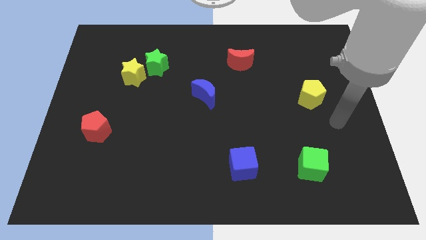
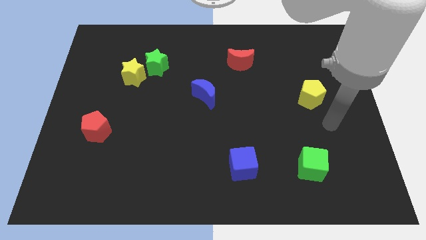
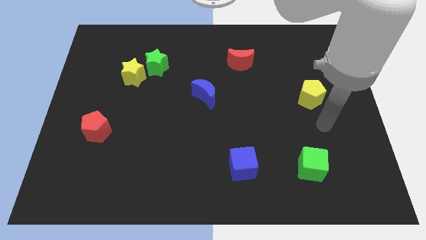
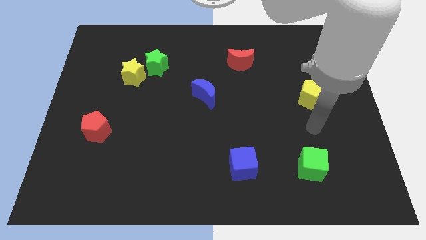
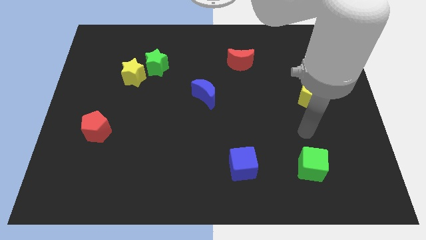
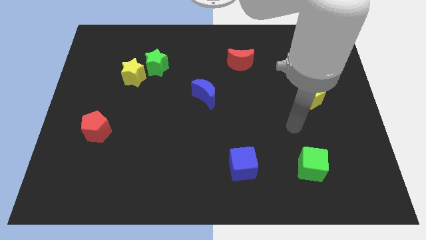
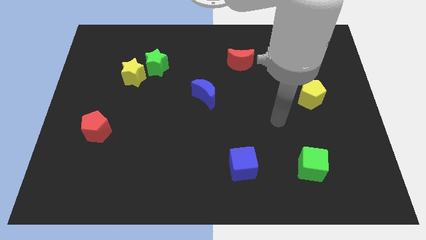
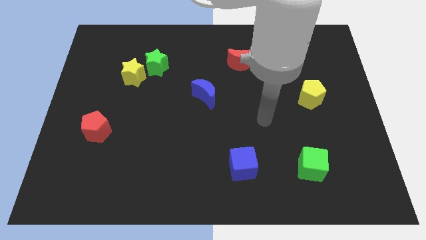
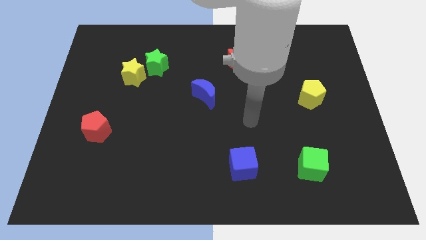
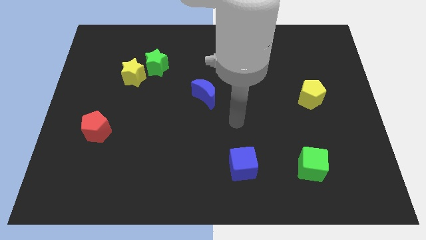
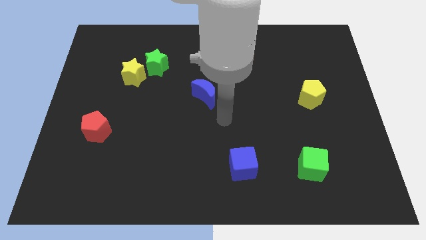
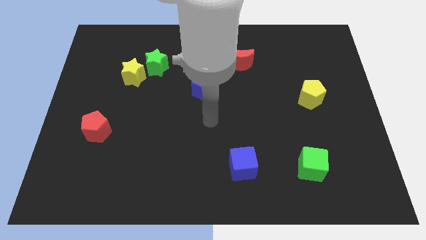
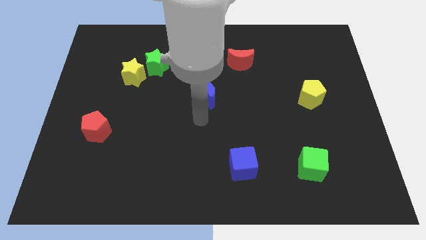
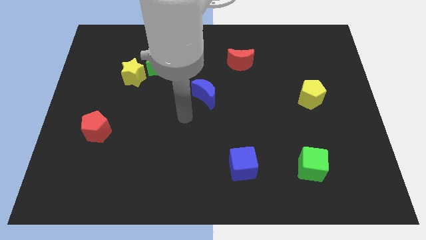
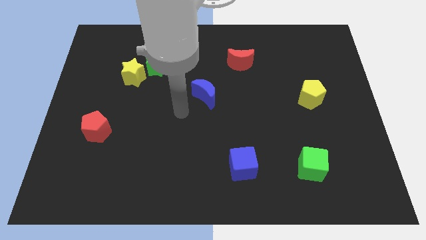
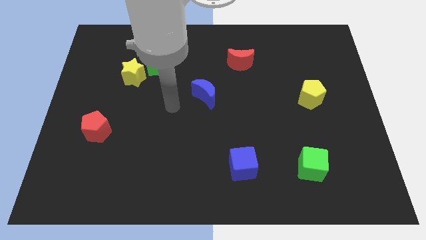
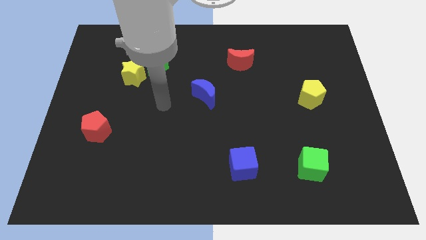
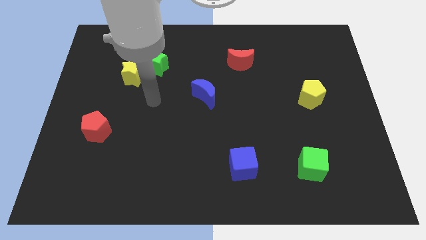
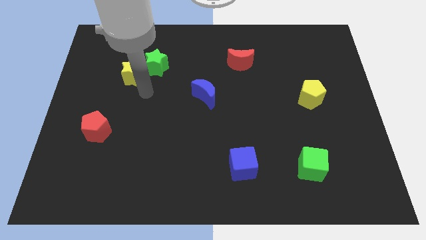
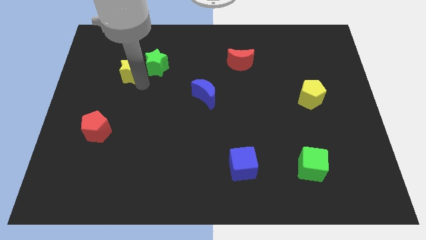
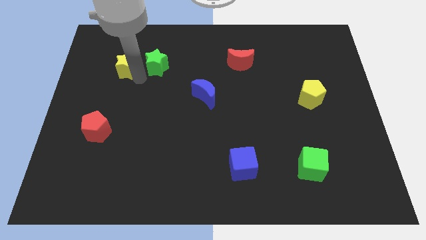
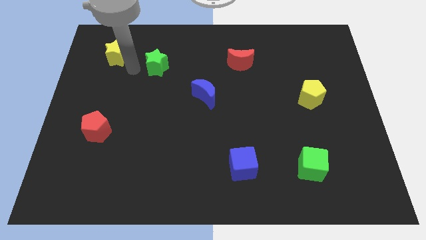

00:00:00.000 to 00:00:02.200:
pull the green star apart from the yellow star

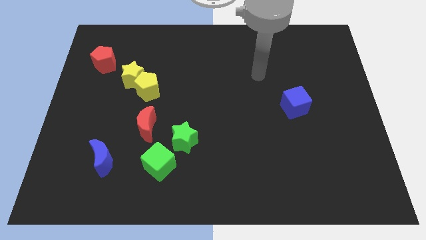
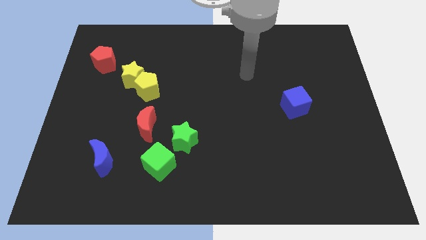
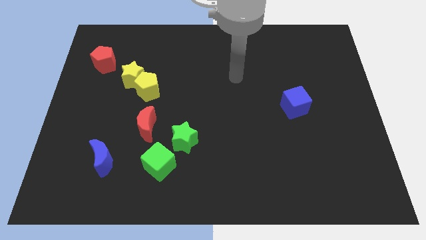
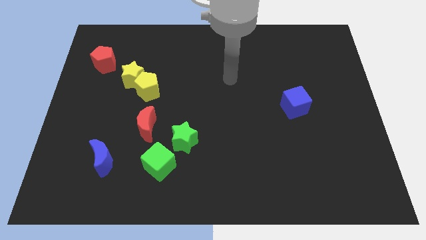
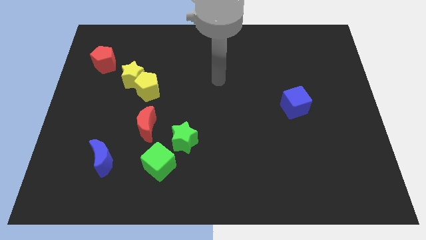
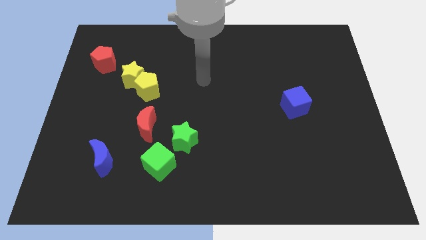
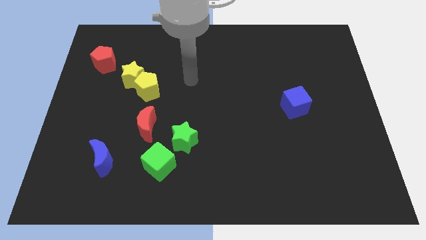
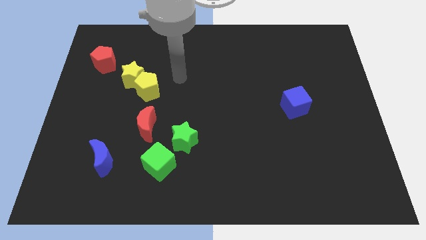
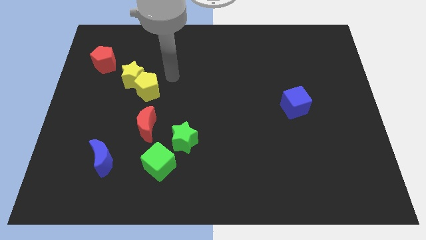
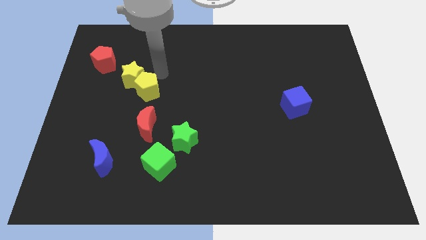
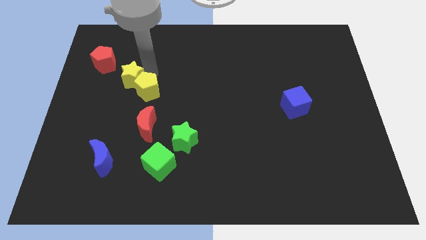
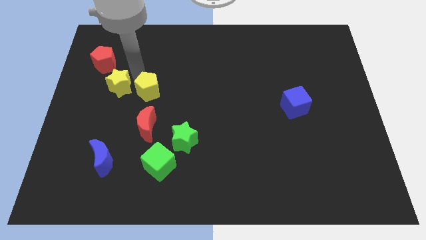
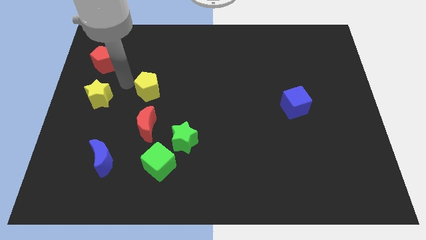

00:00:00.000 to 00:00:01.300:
move the yellow pentagon away from the yellow star

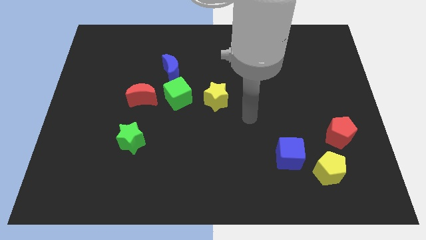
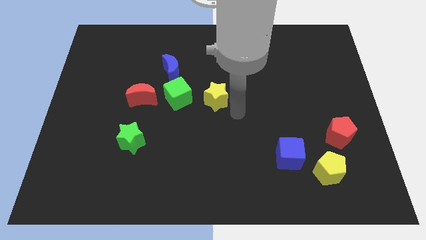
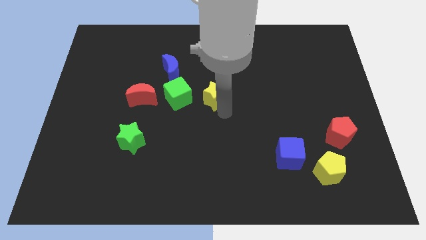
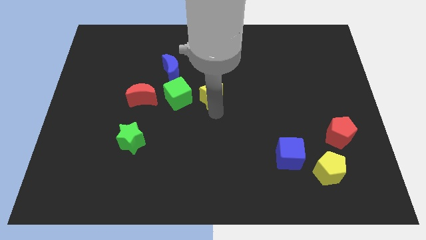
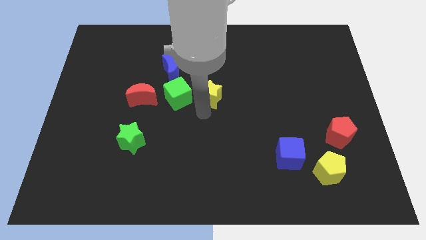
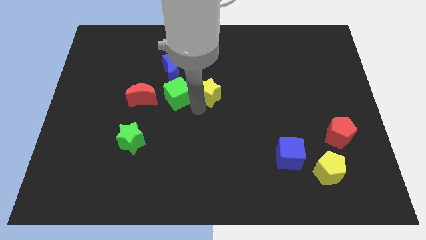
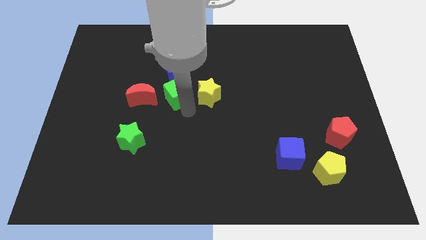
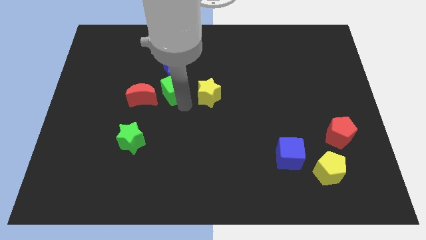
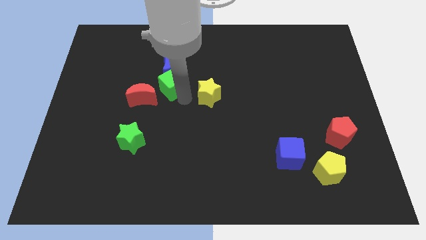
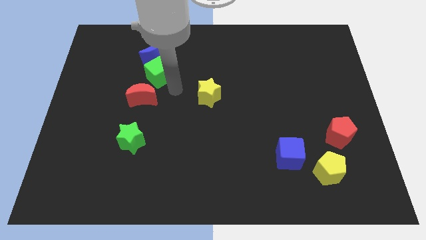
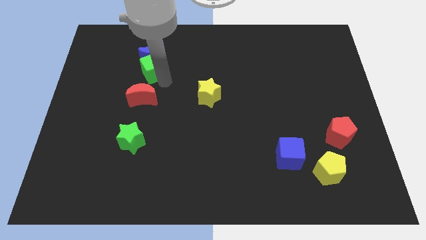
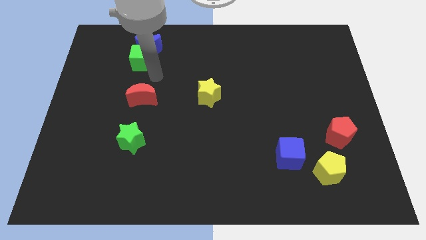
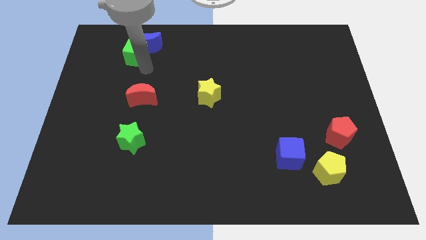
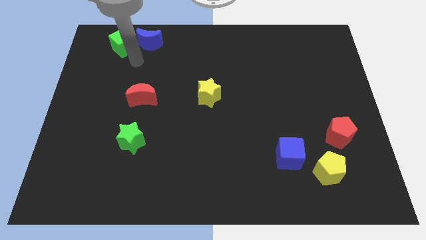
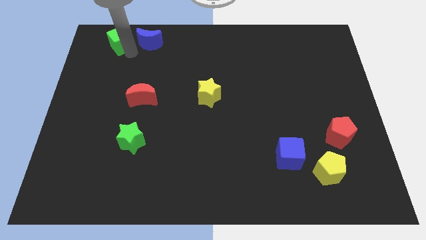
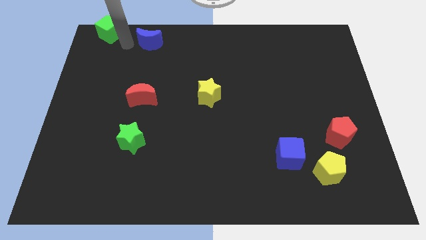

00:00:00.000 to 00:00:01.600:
move the blue moon away from the green cube

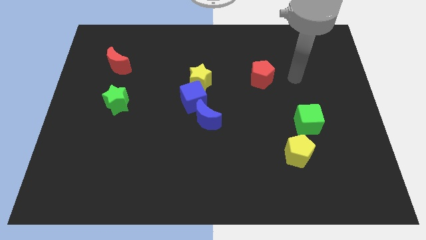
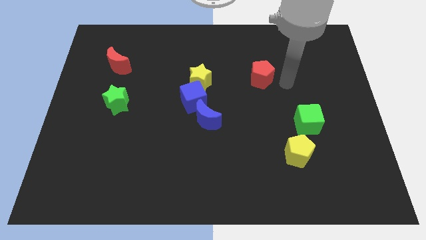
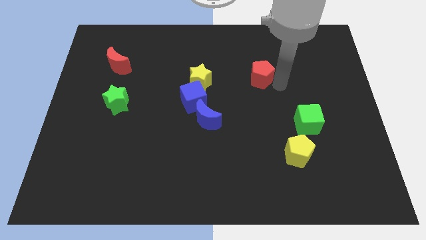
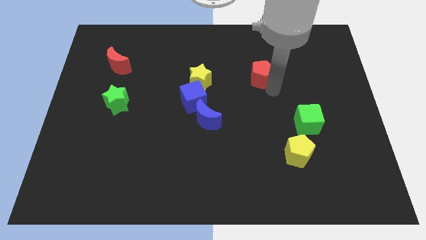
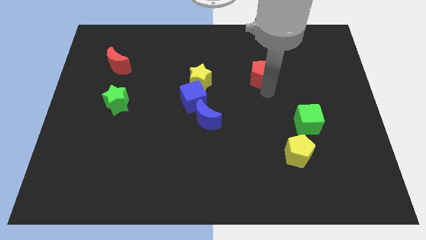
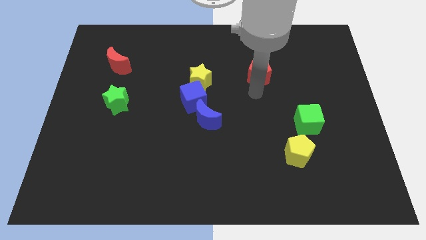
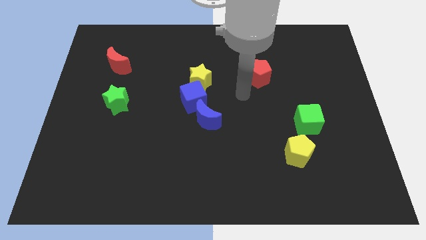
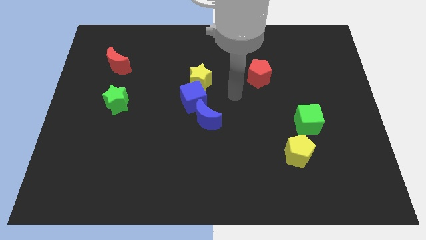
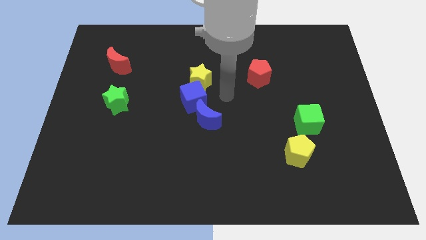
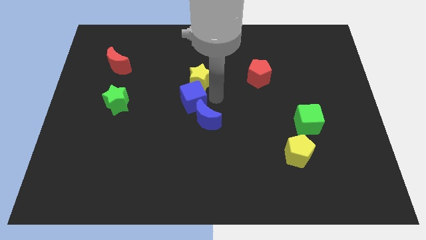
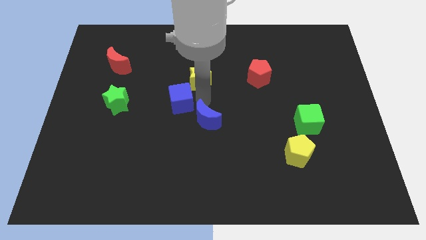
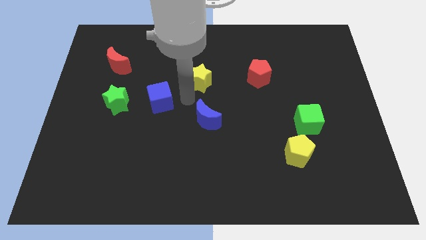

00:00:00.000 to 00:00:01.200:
move the yellow star away from the blue cube

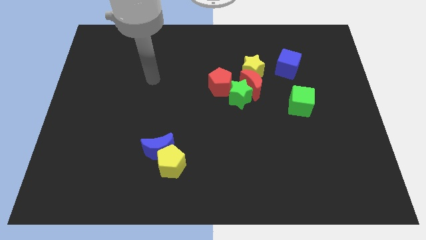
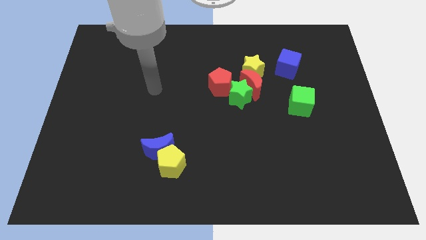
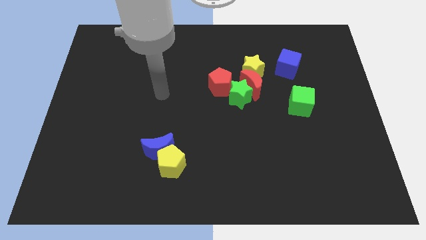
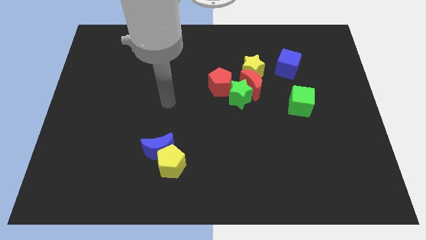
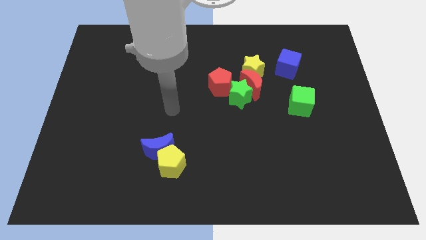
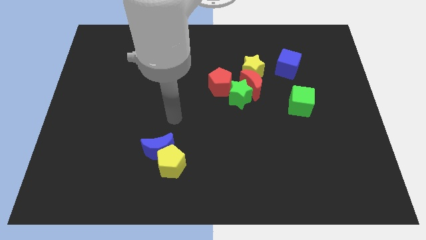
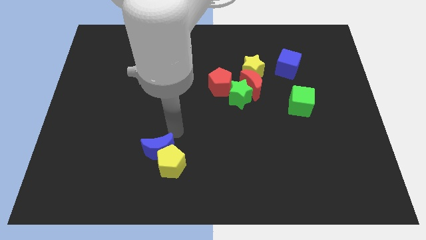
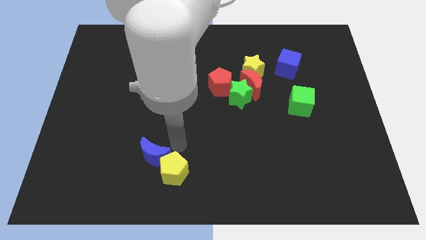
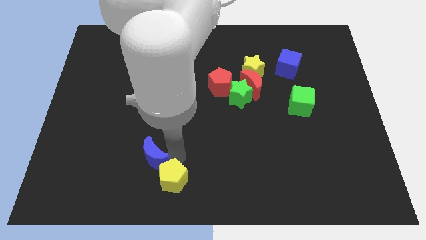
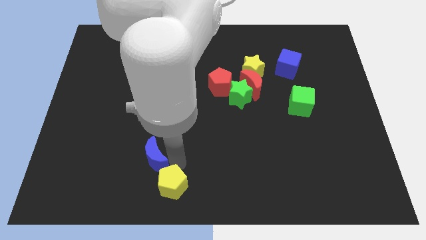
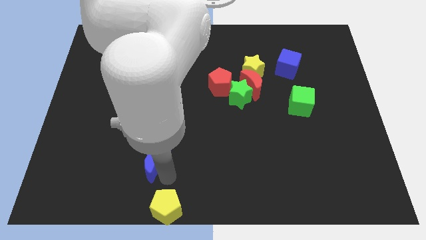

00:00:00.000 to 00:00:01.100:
move the blue moon away from the yellow pentagon

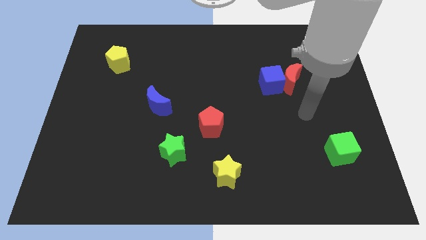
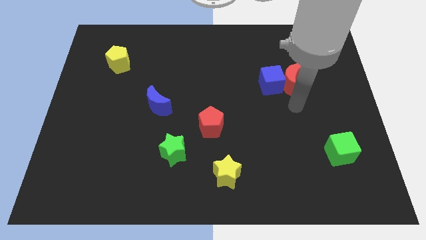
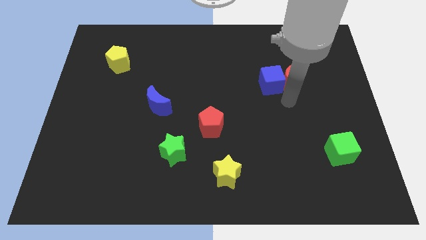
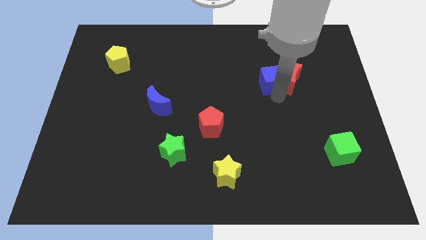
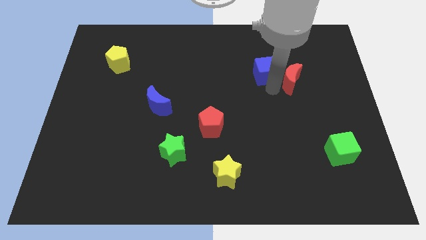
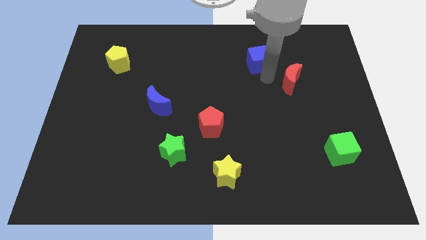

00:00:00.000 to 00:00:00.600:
separate the red moon from the blue cube

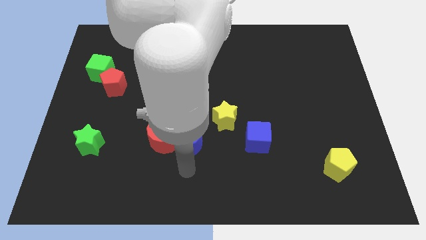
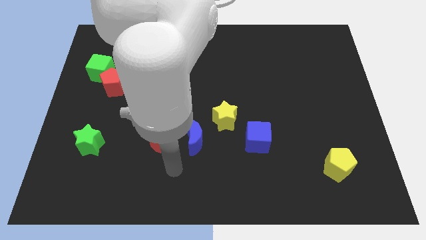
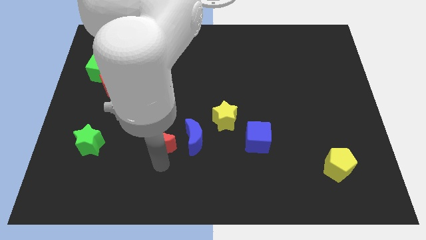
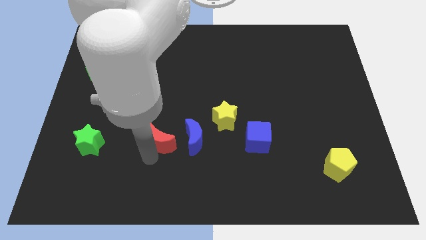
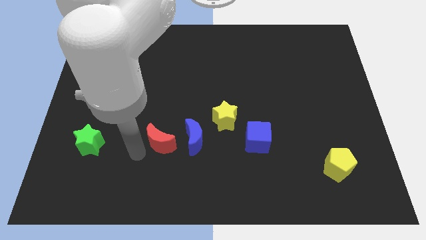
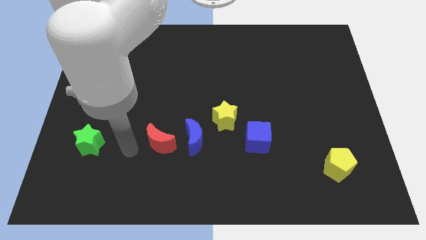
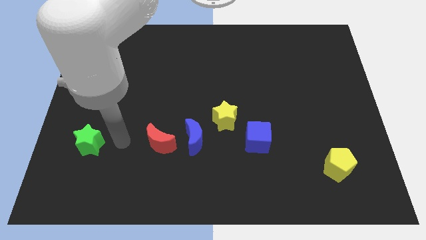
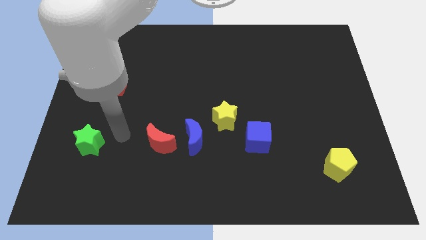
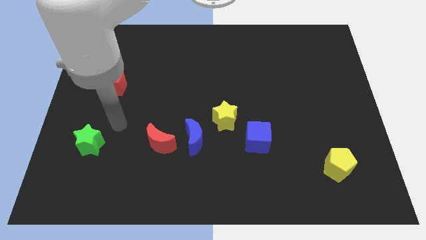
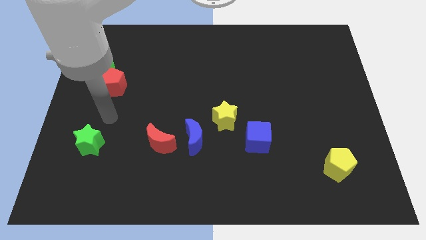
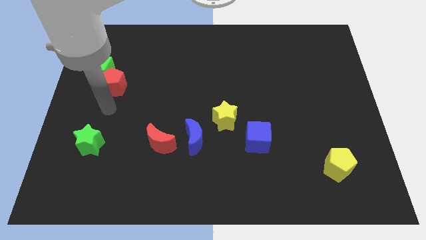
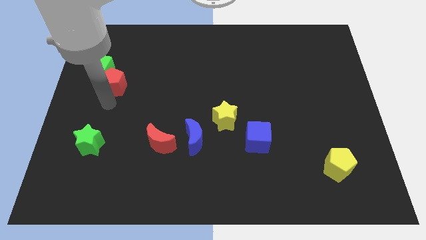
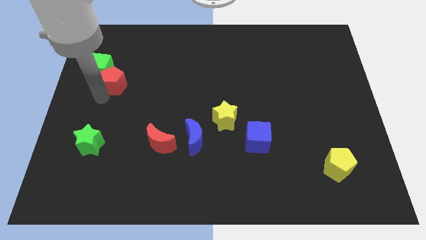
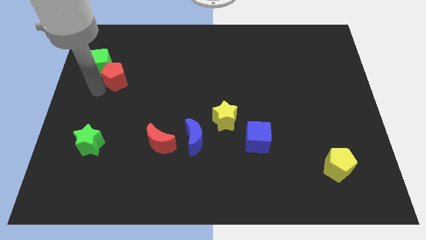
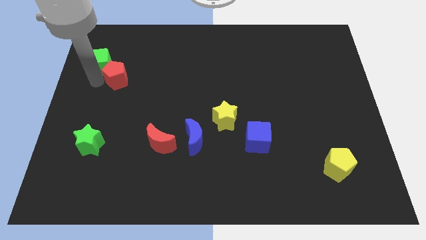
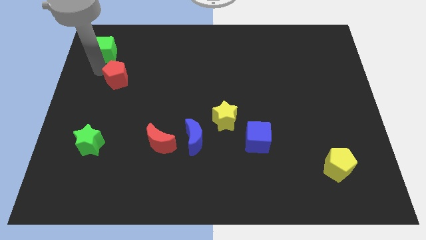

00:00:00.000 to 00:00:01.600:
pull the red pentagon apart from the green cube
